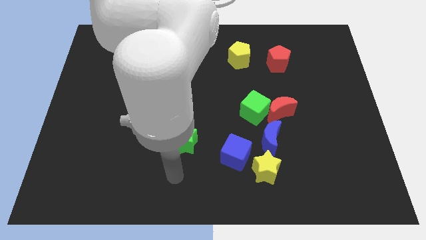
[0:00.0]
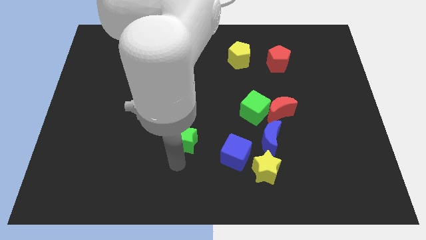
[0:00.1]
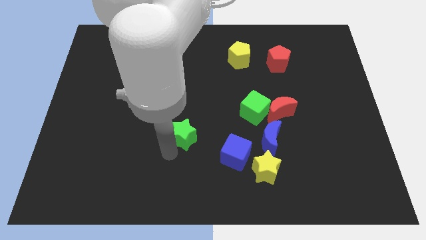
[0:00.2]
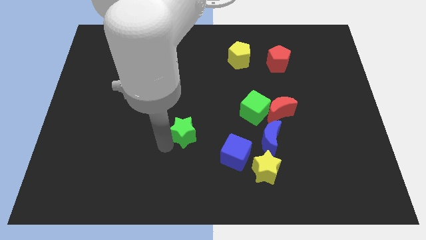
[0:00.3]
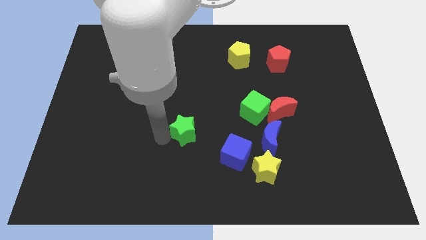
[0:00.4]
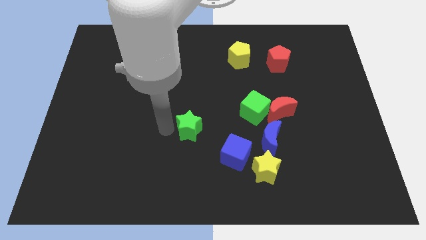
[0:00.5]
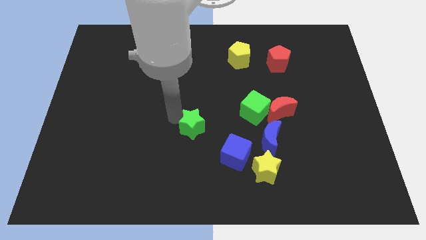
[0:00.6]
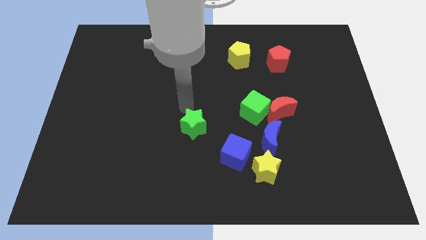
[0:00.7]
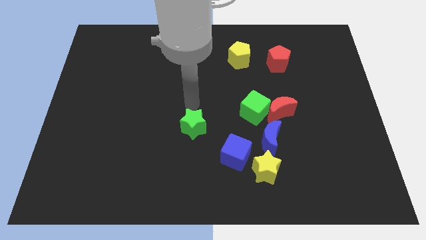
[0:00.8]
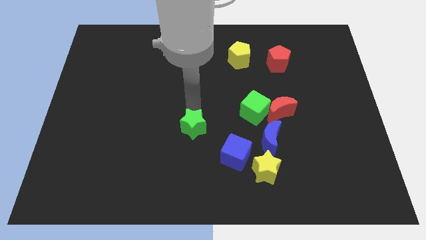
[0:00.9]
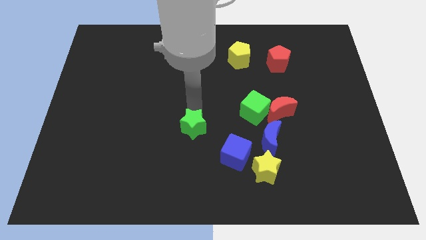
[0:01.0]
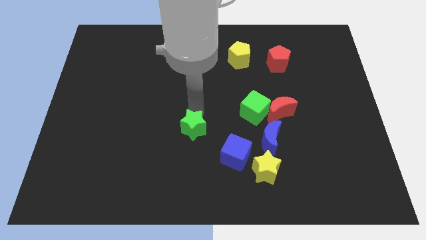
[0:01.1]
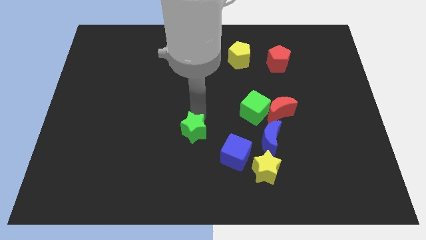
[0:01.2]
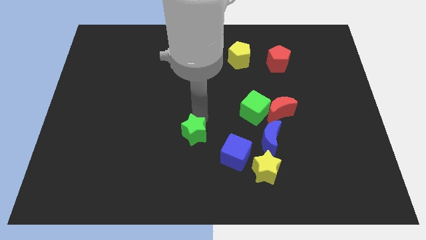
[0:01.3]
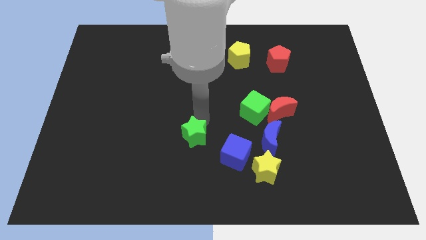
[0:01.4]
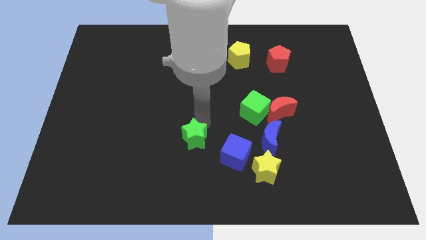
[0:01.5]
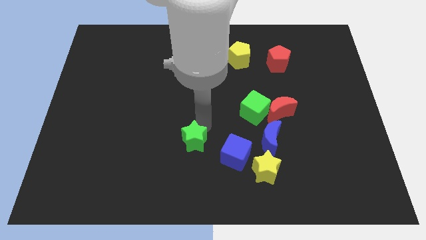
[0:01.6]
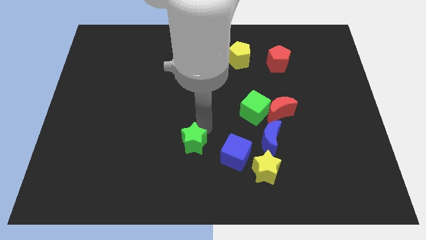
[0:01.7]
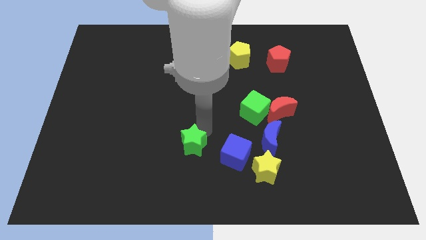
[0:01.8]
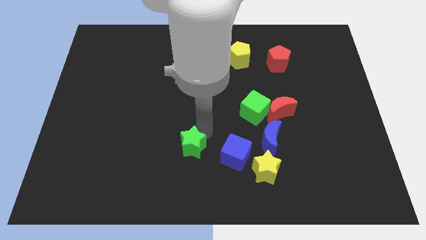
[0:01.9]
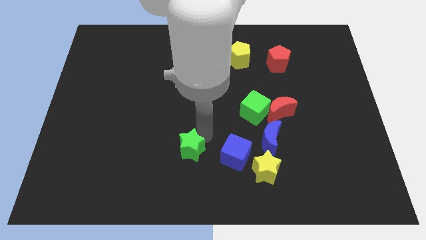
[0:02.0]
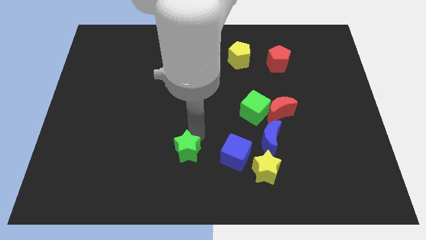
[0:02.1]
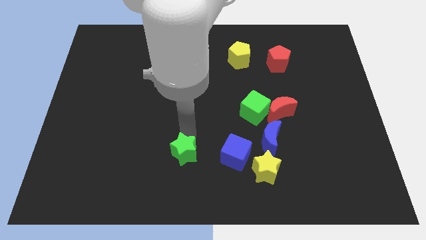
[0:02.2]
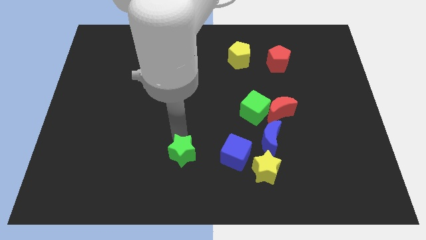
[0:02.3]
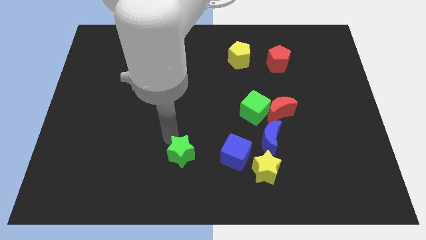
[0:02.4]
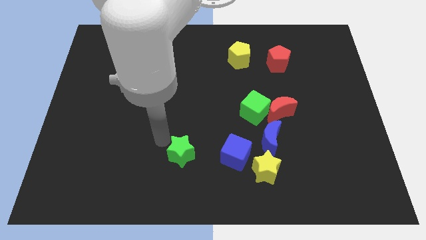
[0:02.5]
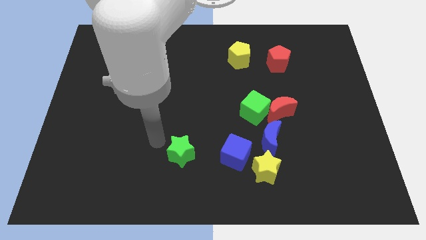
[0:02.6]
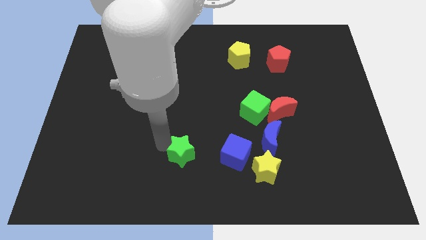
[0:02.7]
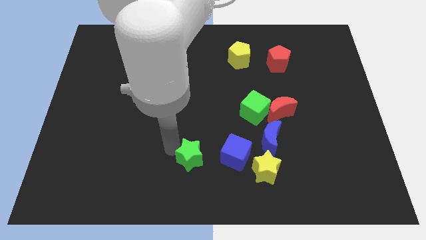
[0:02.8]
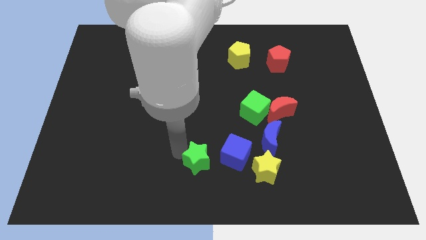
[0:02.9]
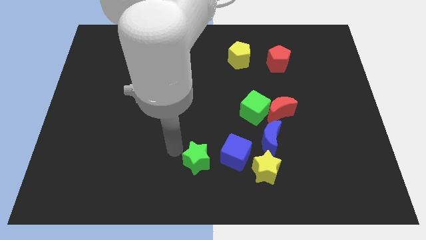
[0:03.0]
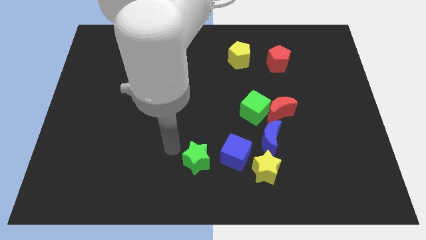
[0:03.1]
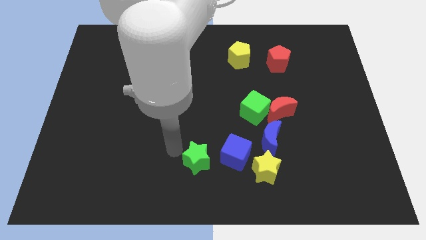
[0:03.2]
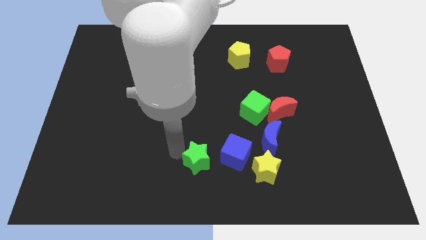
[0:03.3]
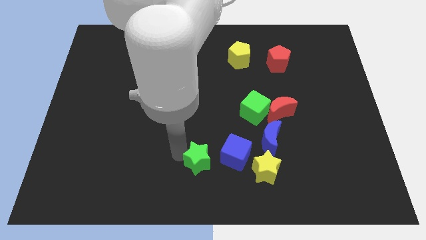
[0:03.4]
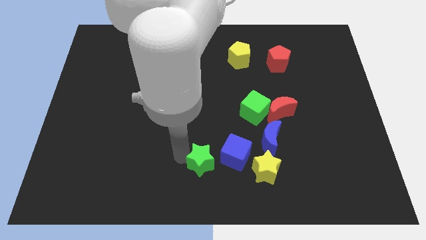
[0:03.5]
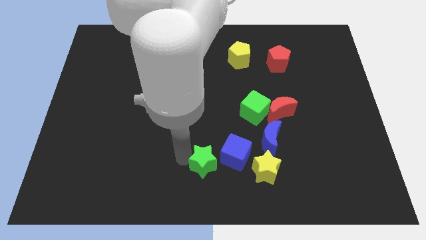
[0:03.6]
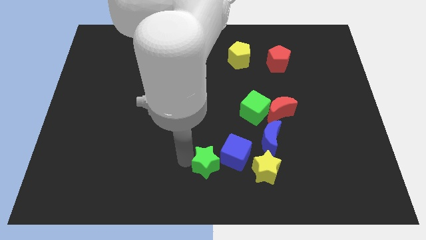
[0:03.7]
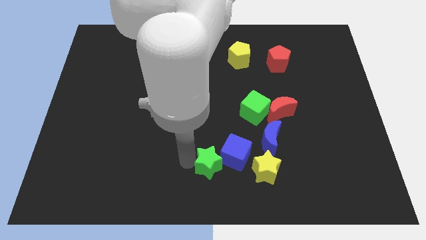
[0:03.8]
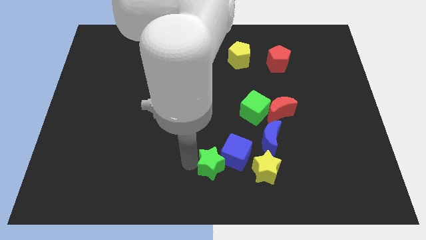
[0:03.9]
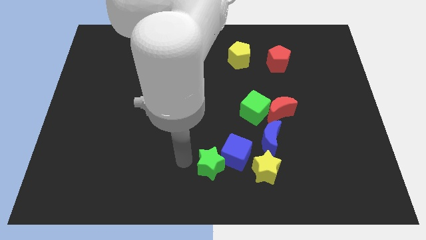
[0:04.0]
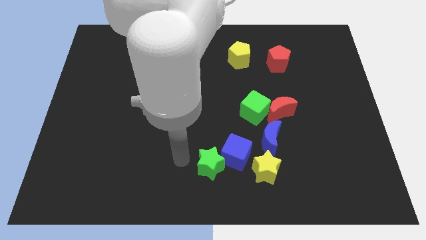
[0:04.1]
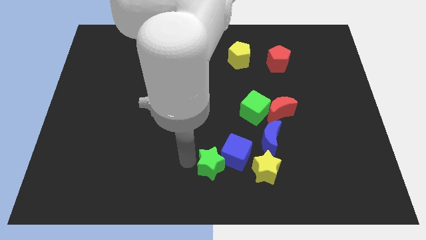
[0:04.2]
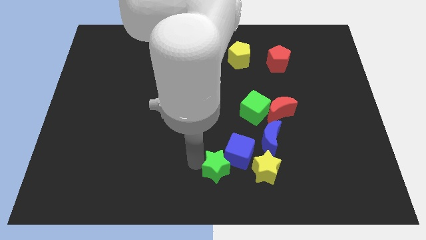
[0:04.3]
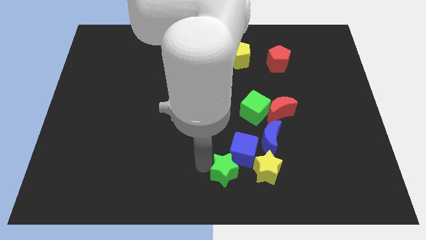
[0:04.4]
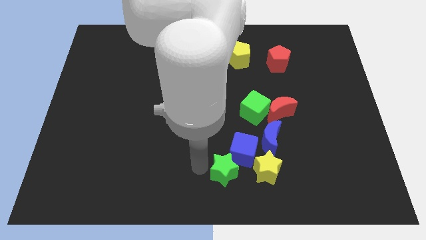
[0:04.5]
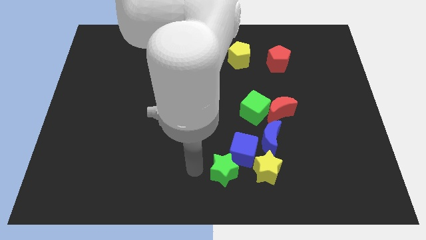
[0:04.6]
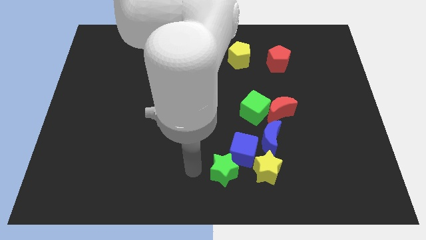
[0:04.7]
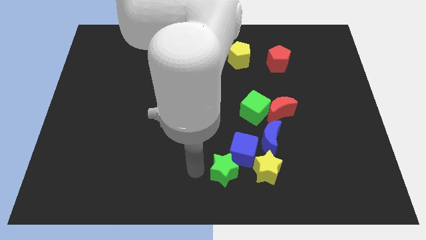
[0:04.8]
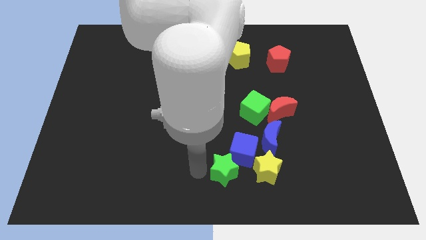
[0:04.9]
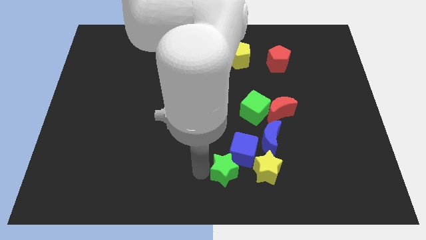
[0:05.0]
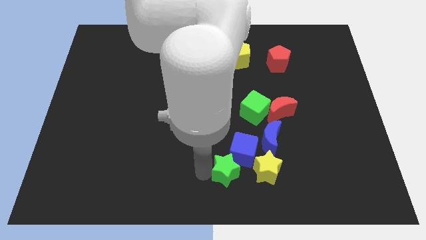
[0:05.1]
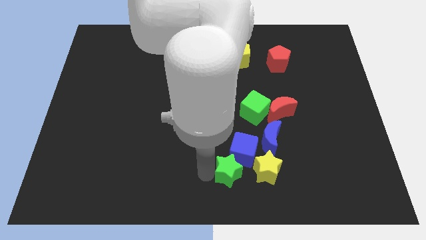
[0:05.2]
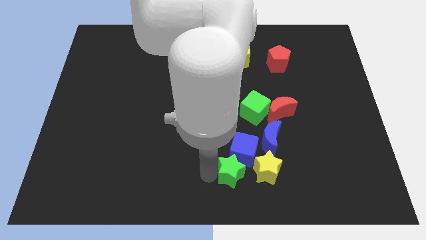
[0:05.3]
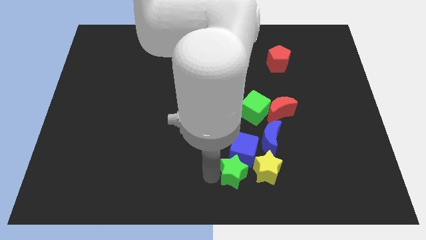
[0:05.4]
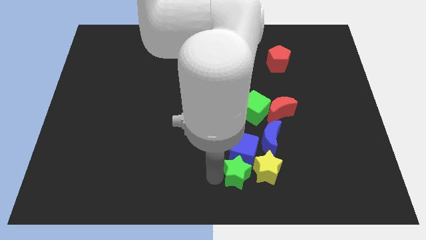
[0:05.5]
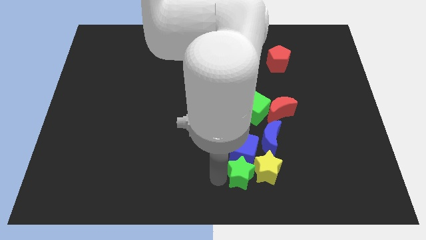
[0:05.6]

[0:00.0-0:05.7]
put the green star next to the yellow star

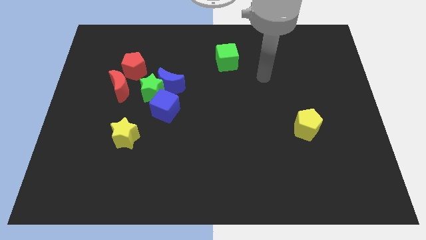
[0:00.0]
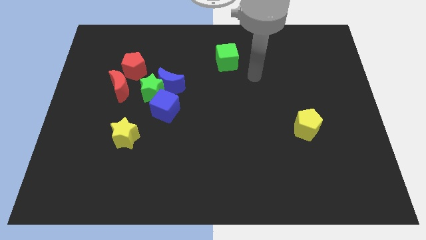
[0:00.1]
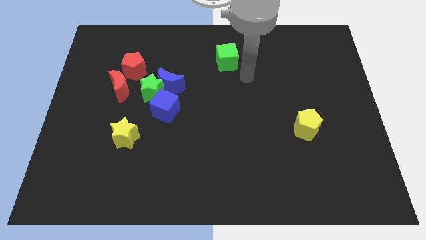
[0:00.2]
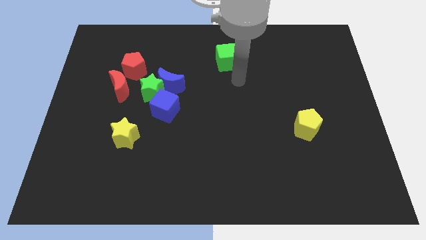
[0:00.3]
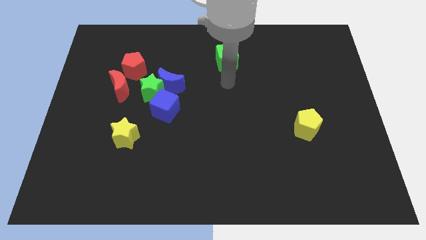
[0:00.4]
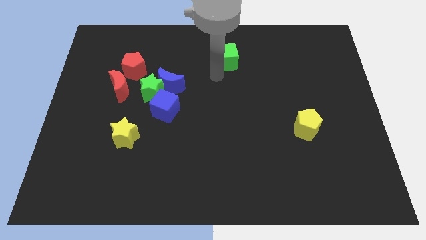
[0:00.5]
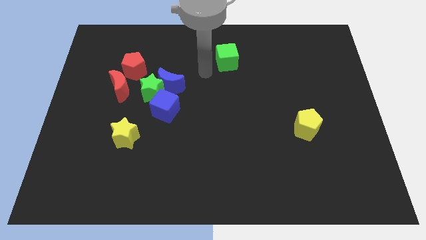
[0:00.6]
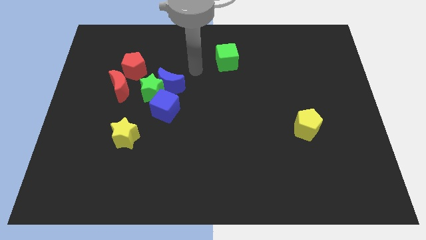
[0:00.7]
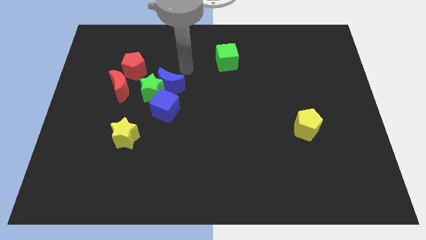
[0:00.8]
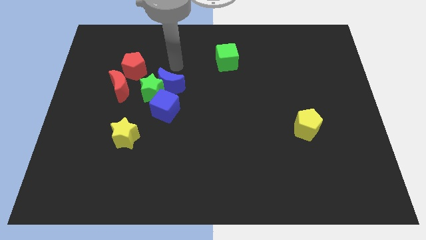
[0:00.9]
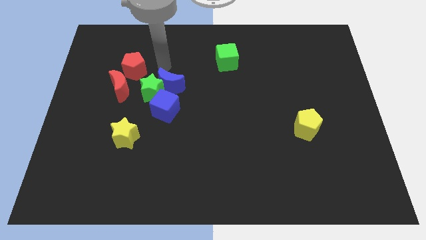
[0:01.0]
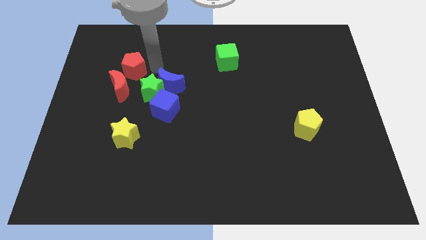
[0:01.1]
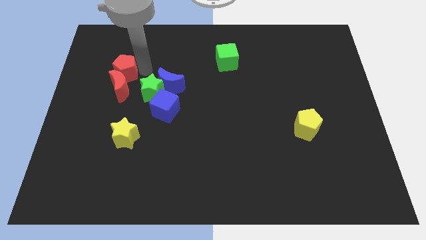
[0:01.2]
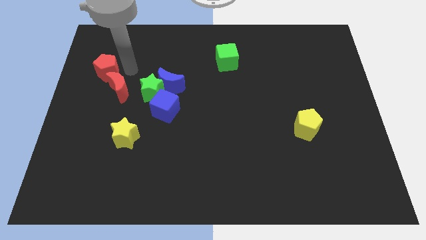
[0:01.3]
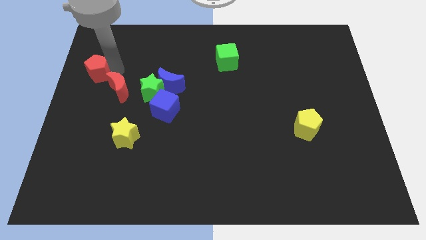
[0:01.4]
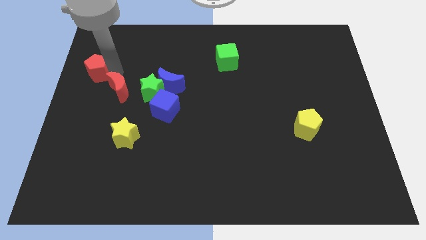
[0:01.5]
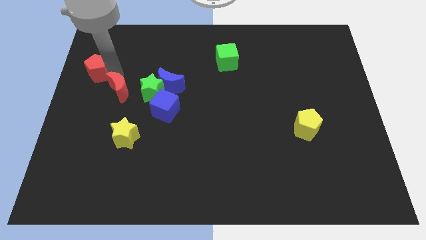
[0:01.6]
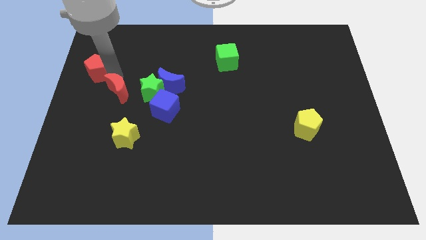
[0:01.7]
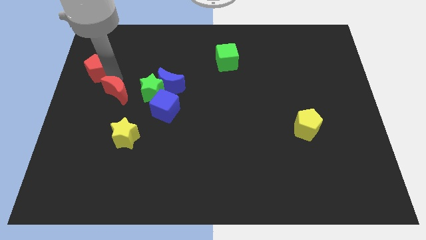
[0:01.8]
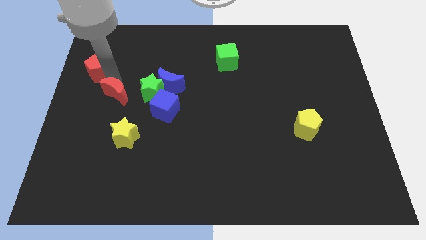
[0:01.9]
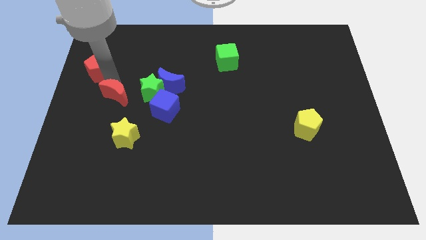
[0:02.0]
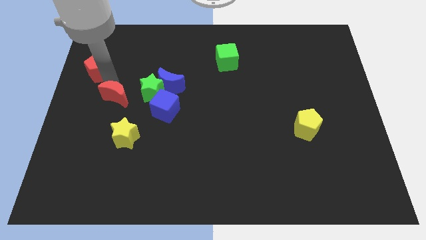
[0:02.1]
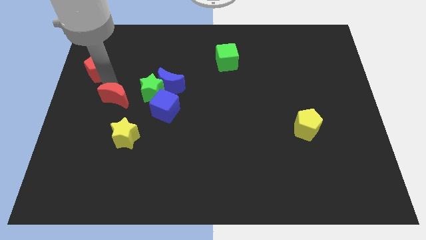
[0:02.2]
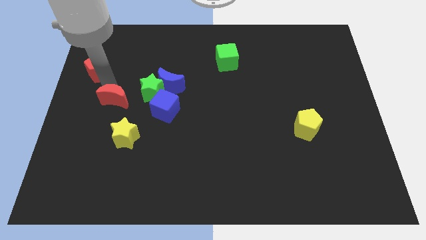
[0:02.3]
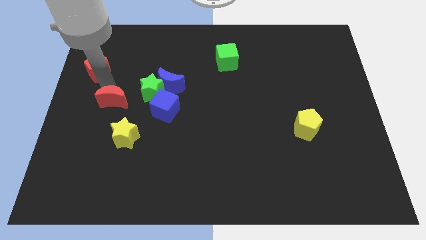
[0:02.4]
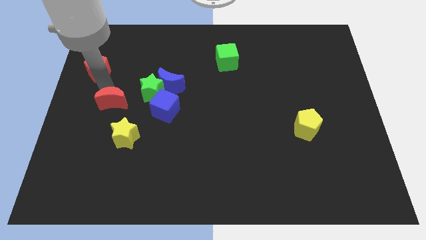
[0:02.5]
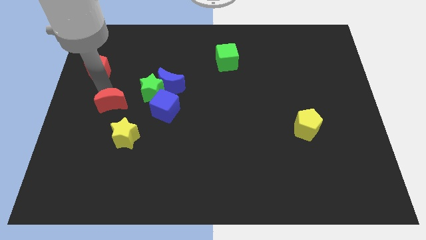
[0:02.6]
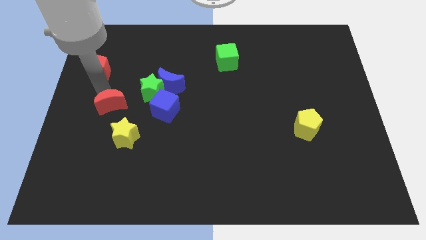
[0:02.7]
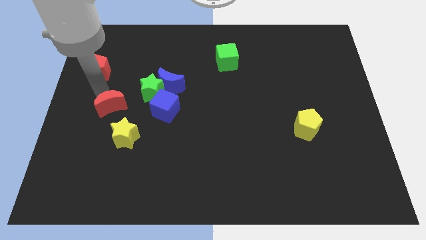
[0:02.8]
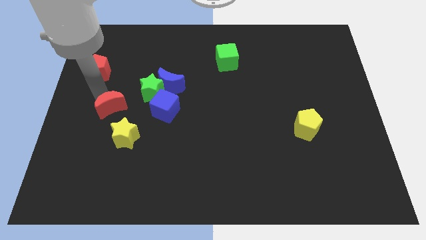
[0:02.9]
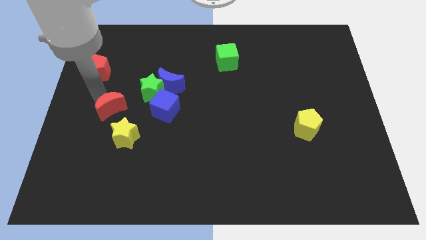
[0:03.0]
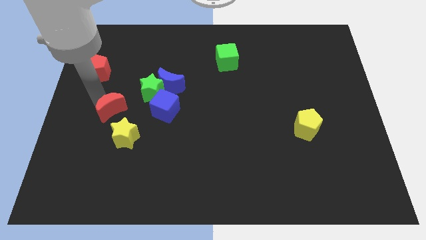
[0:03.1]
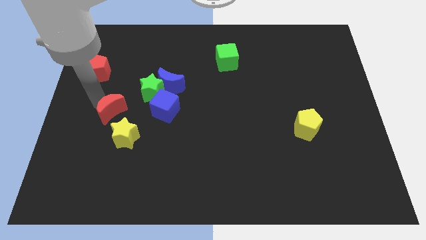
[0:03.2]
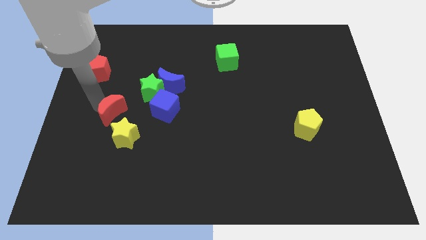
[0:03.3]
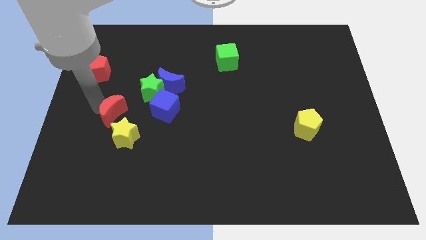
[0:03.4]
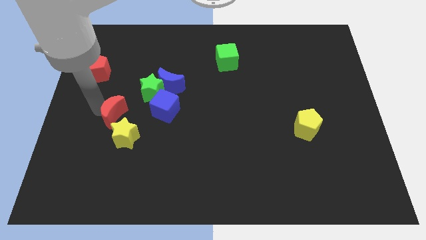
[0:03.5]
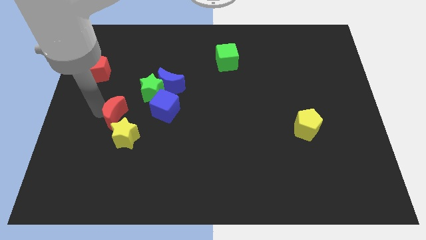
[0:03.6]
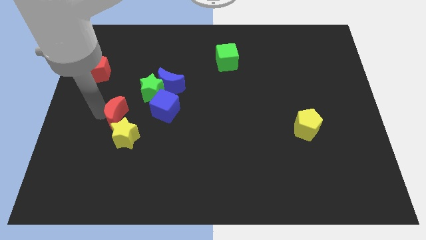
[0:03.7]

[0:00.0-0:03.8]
put the red moon close to the yellow star
